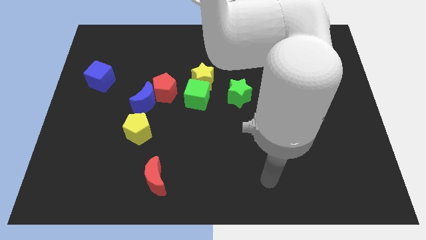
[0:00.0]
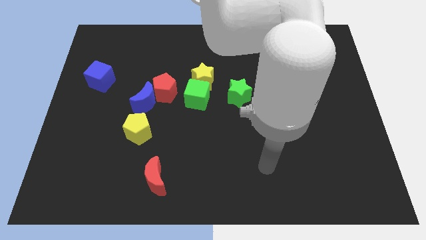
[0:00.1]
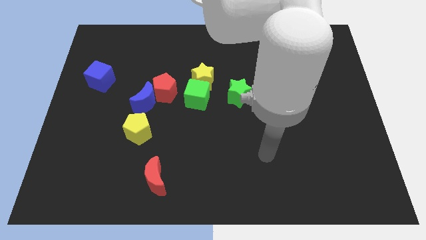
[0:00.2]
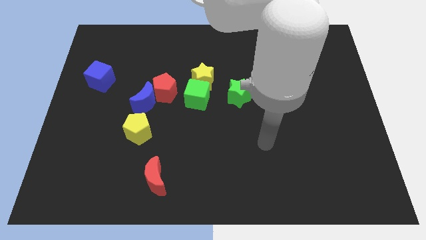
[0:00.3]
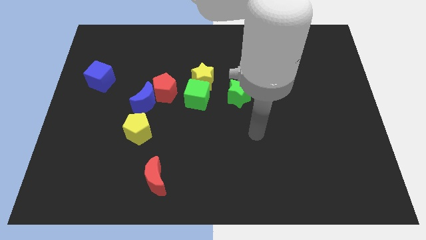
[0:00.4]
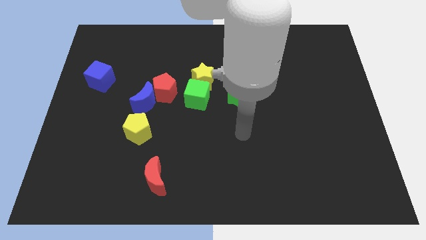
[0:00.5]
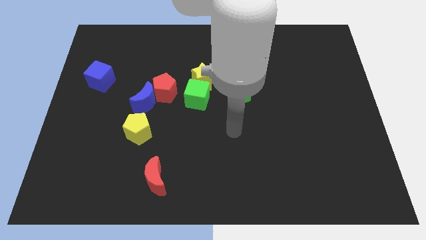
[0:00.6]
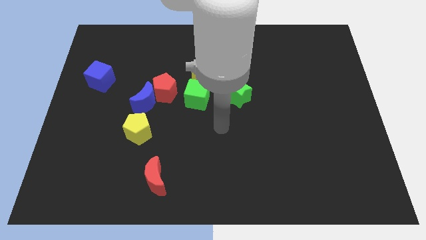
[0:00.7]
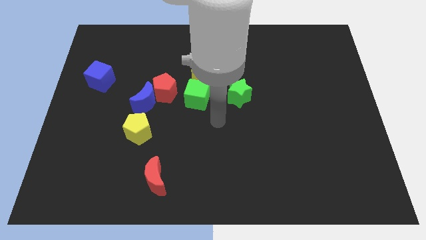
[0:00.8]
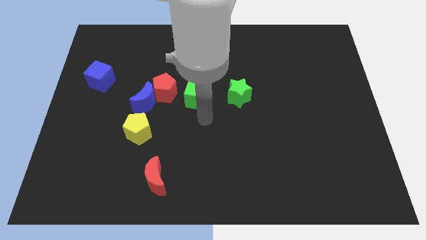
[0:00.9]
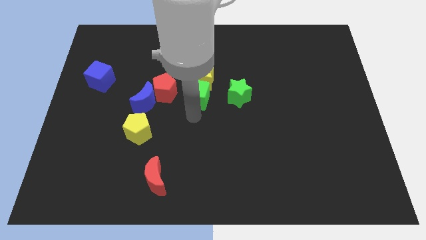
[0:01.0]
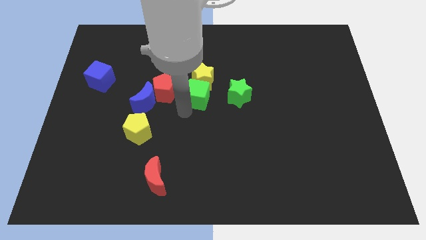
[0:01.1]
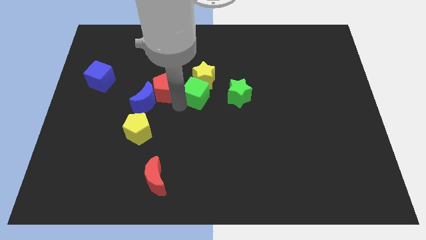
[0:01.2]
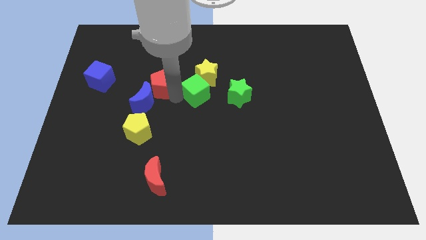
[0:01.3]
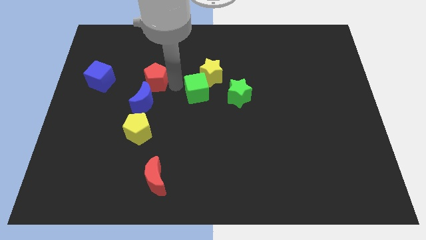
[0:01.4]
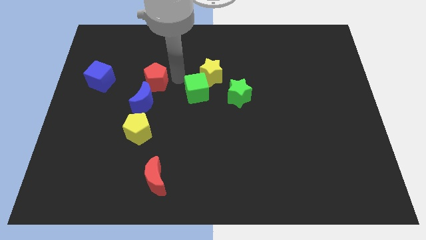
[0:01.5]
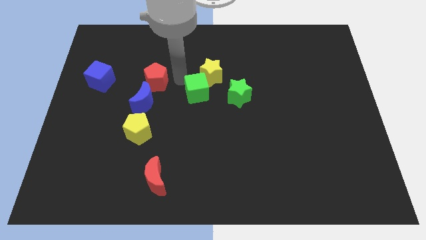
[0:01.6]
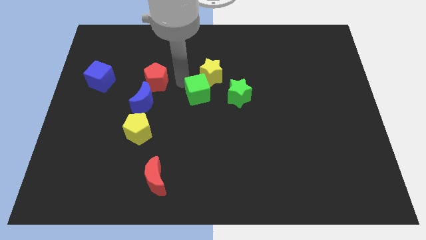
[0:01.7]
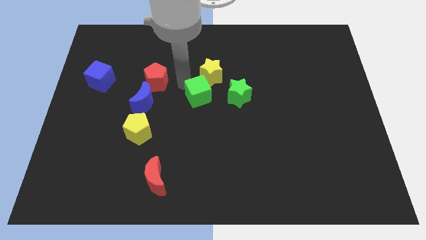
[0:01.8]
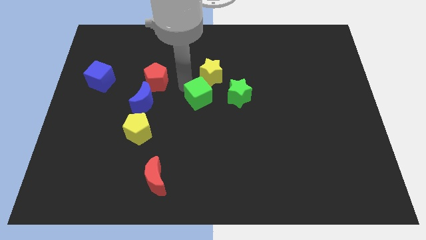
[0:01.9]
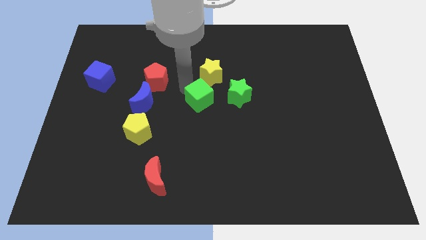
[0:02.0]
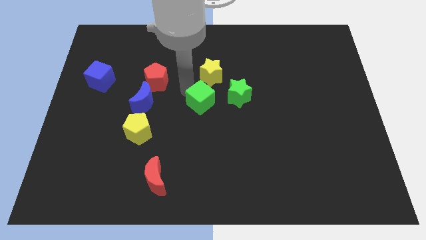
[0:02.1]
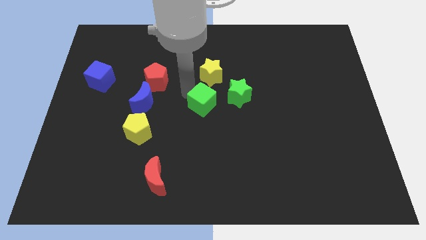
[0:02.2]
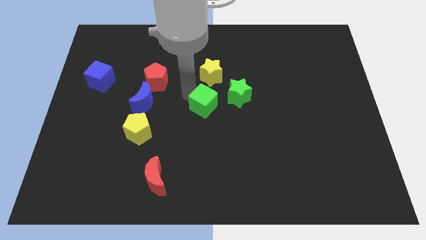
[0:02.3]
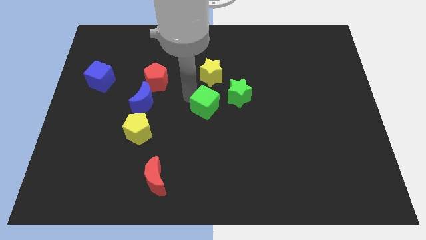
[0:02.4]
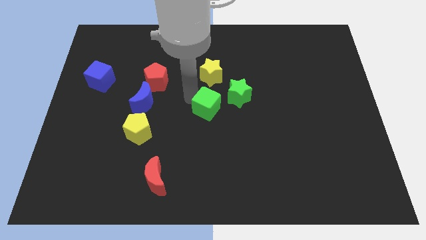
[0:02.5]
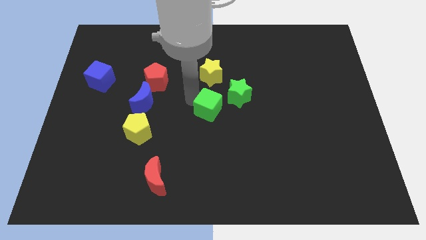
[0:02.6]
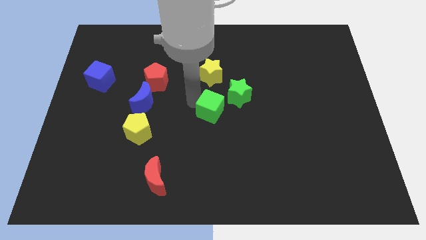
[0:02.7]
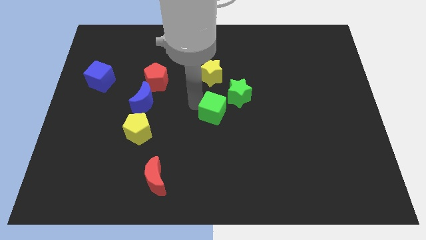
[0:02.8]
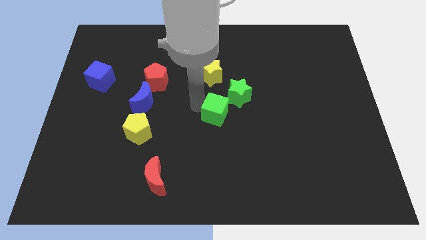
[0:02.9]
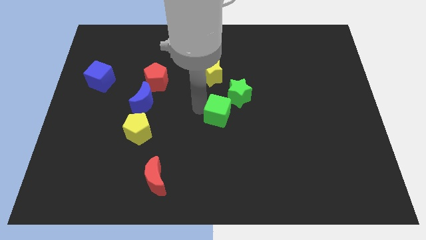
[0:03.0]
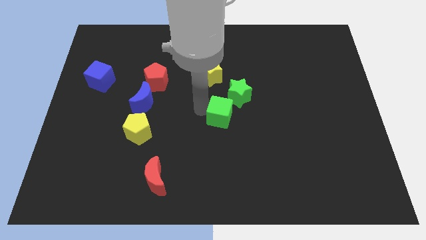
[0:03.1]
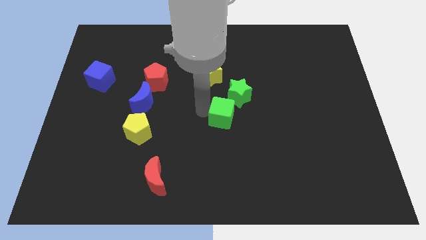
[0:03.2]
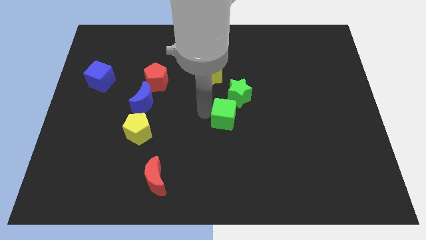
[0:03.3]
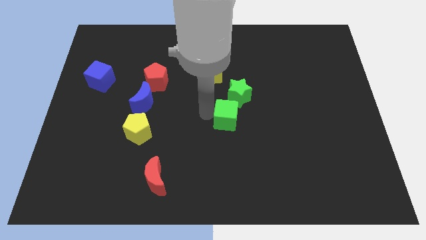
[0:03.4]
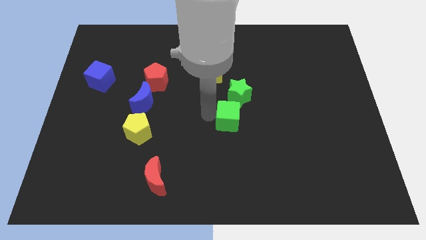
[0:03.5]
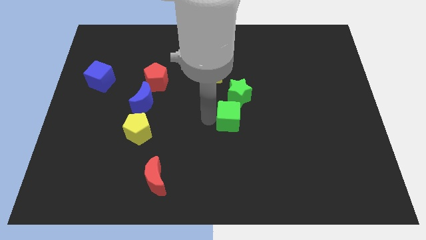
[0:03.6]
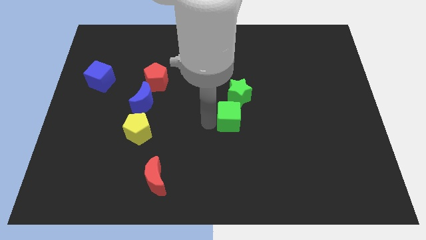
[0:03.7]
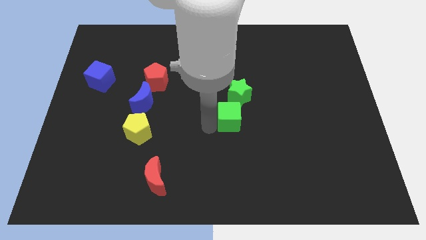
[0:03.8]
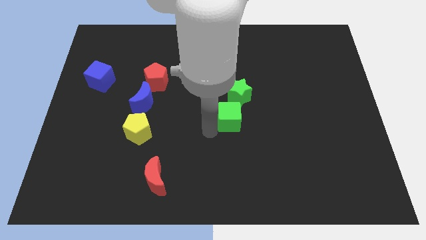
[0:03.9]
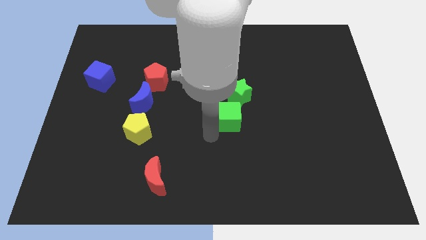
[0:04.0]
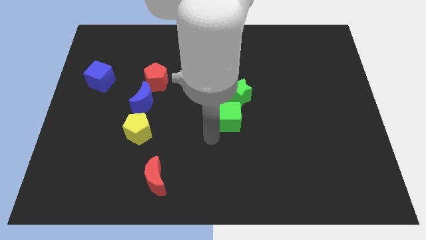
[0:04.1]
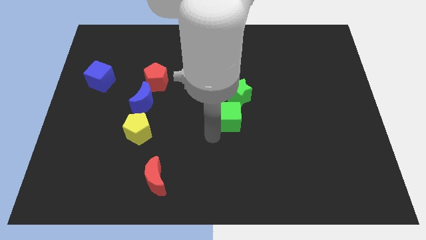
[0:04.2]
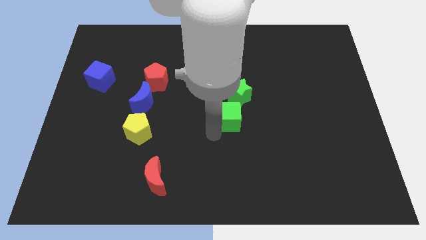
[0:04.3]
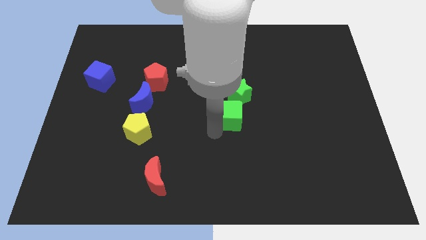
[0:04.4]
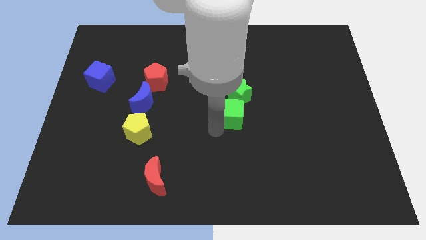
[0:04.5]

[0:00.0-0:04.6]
move the green cube slightly to the right

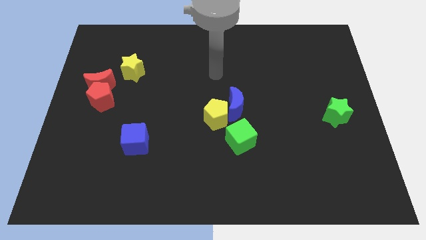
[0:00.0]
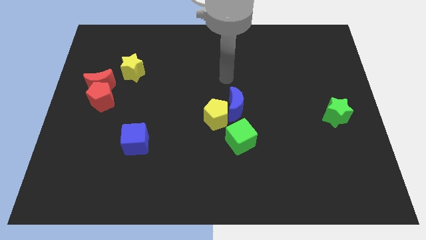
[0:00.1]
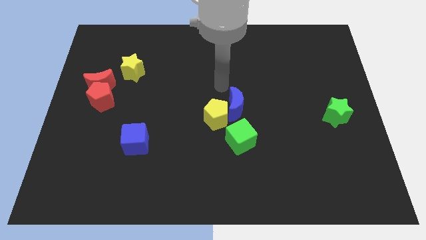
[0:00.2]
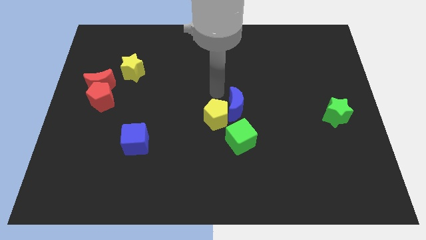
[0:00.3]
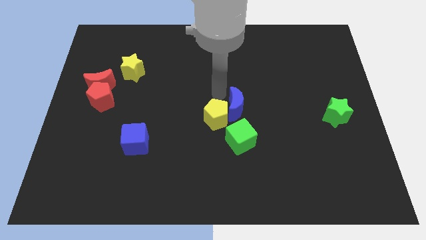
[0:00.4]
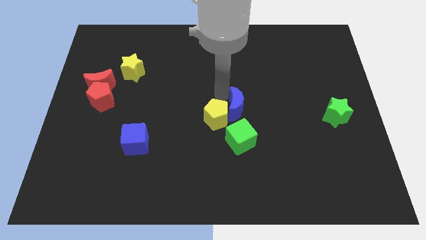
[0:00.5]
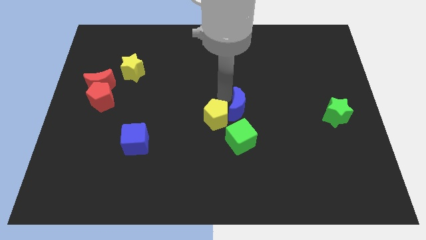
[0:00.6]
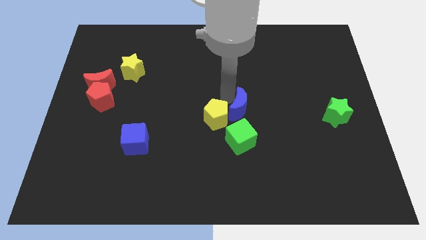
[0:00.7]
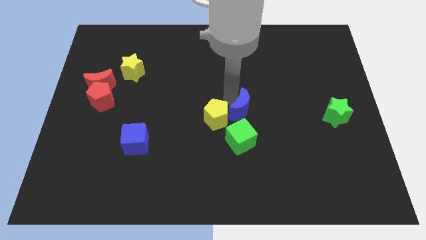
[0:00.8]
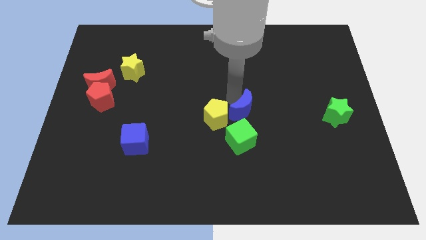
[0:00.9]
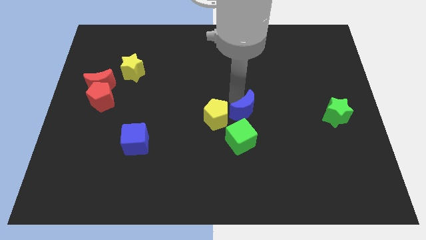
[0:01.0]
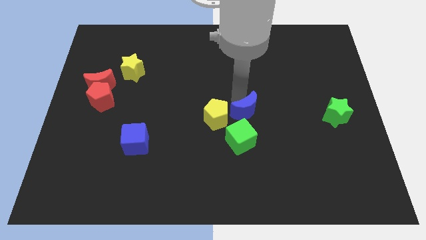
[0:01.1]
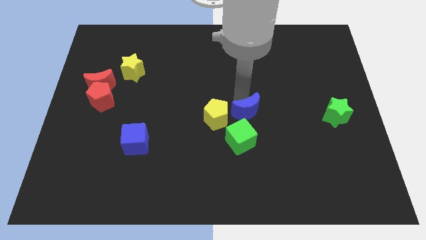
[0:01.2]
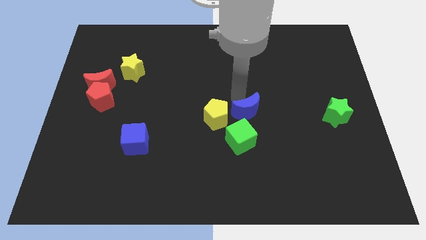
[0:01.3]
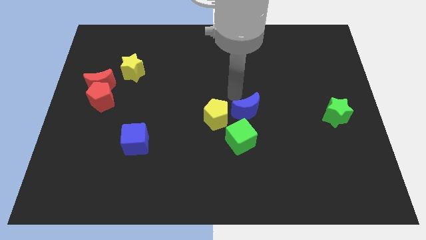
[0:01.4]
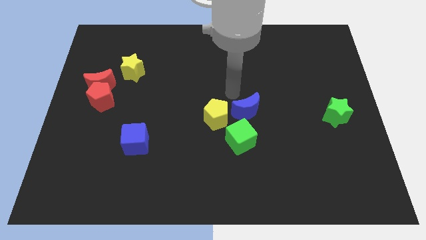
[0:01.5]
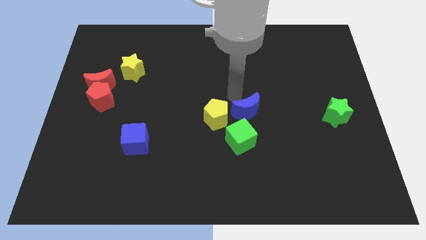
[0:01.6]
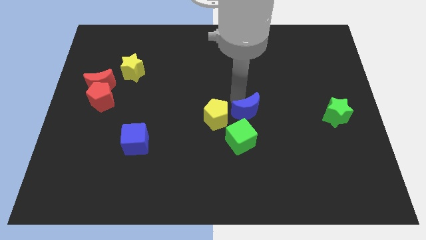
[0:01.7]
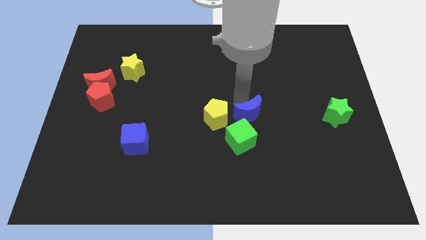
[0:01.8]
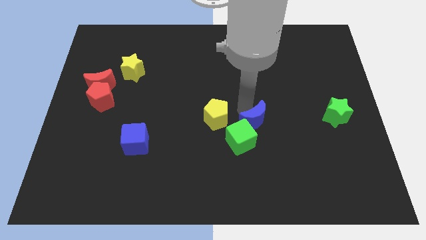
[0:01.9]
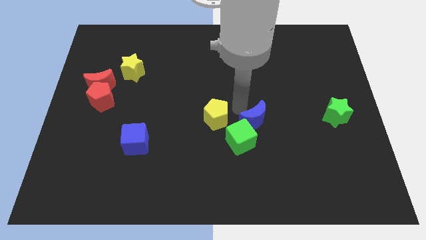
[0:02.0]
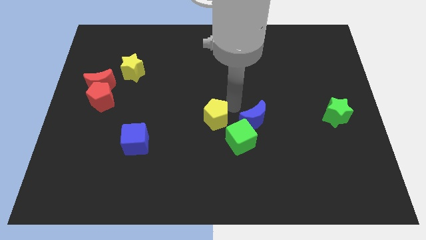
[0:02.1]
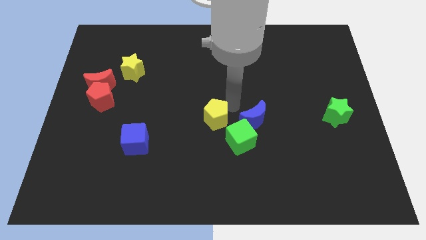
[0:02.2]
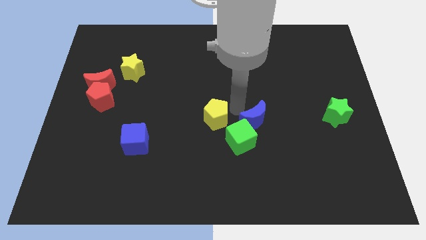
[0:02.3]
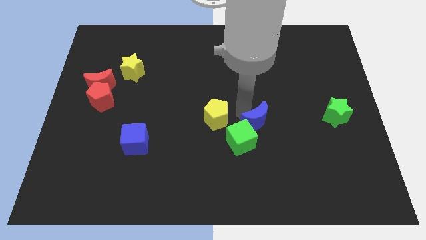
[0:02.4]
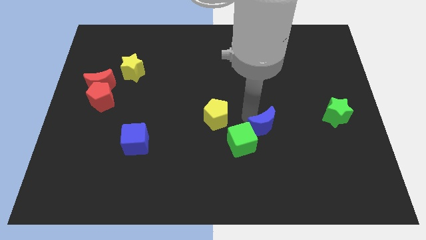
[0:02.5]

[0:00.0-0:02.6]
slide the blue moon a bit downwards and right

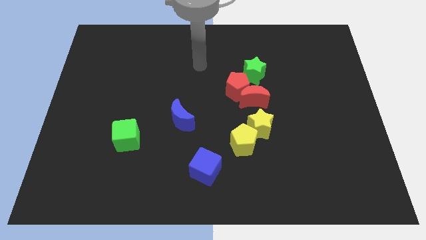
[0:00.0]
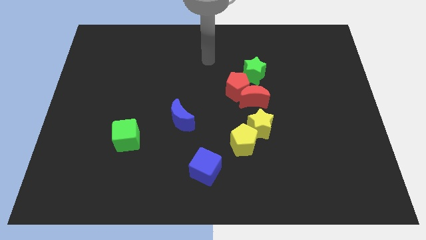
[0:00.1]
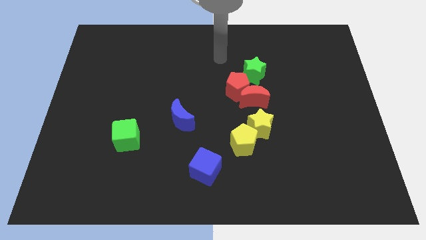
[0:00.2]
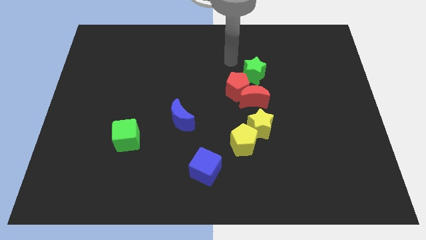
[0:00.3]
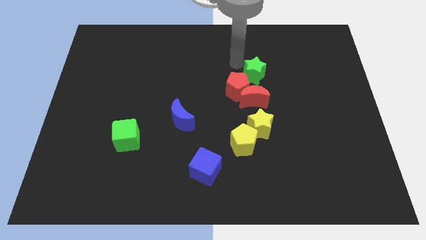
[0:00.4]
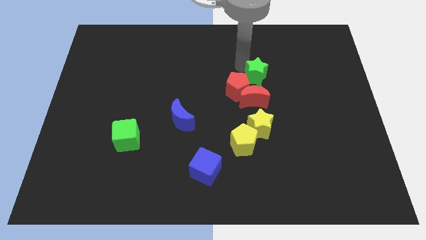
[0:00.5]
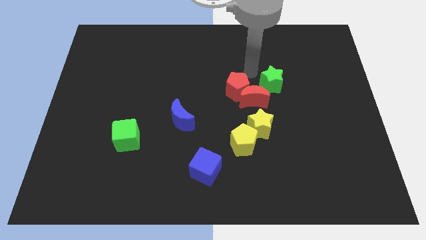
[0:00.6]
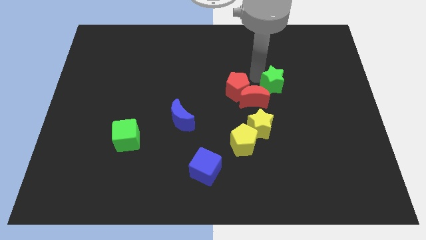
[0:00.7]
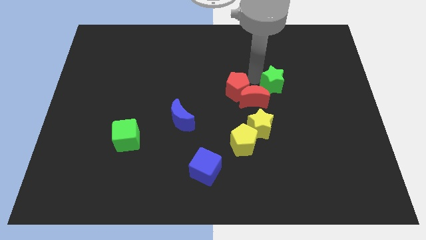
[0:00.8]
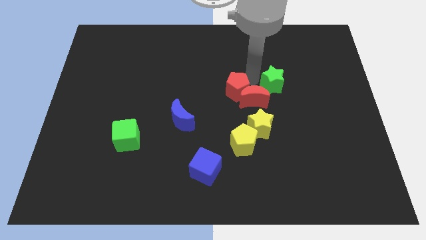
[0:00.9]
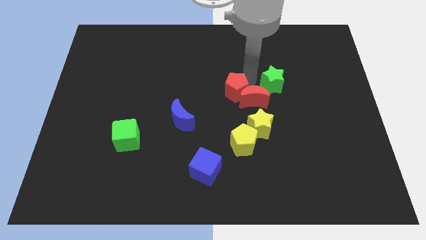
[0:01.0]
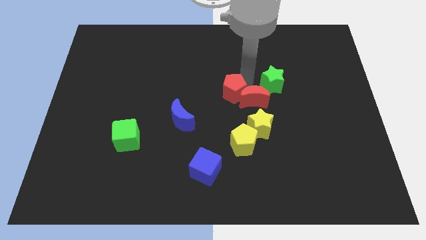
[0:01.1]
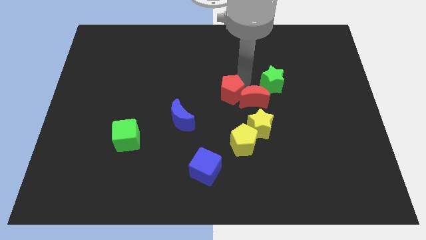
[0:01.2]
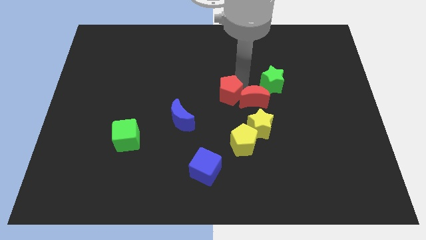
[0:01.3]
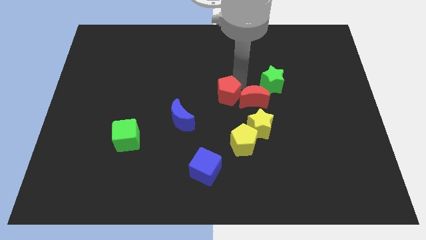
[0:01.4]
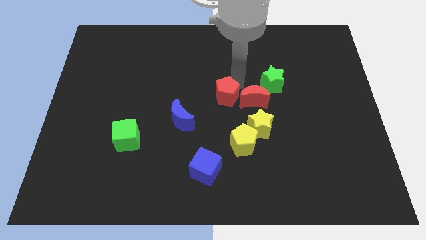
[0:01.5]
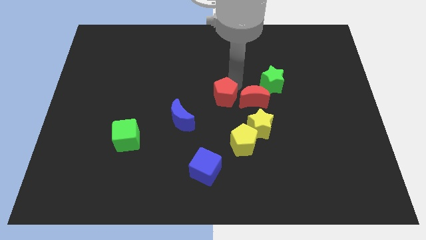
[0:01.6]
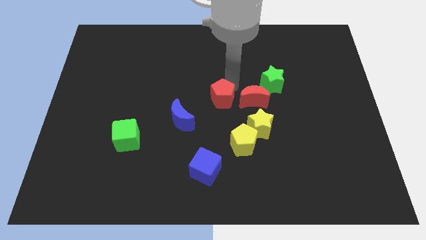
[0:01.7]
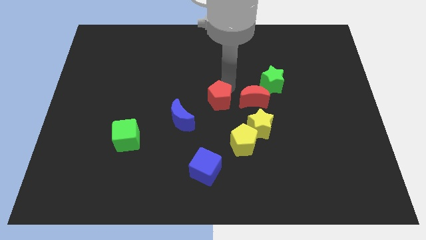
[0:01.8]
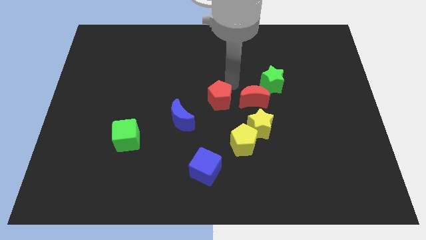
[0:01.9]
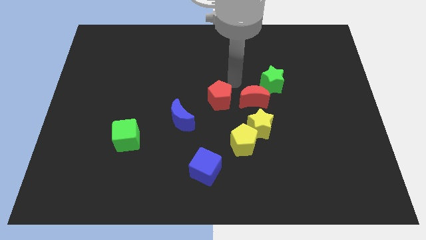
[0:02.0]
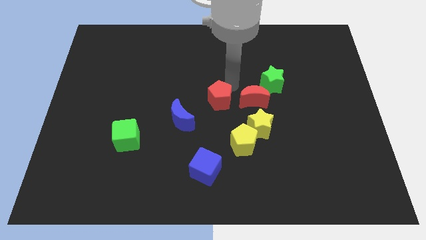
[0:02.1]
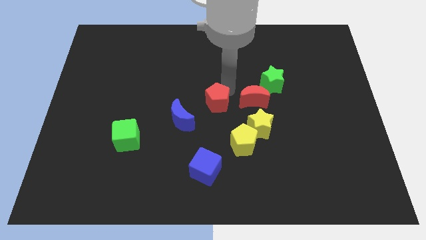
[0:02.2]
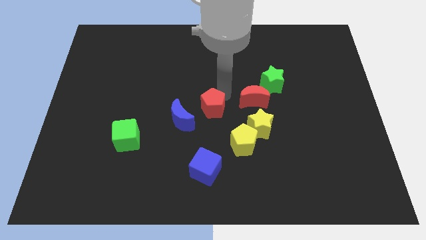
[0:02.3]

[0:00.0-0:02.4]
push the red pentagon a bit downwards and to the left diagonally
